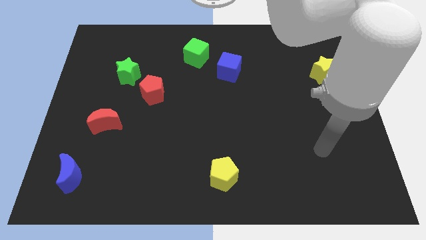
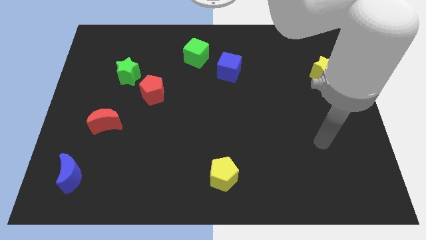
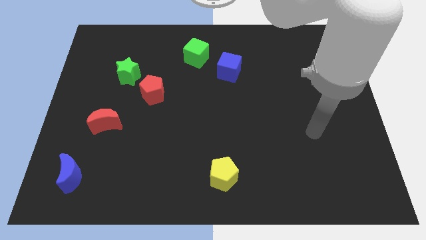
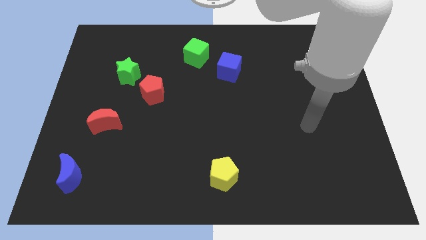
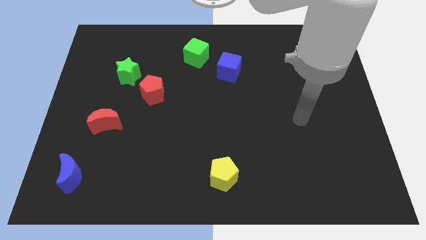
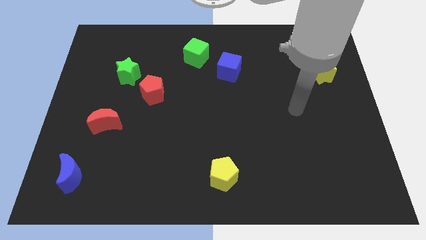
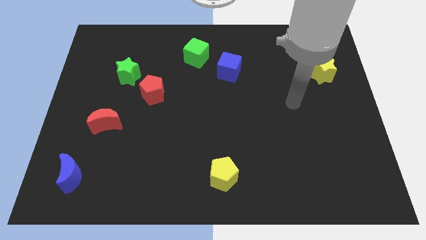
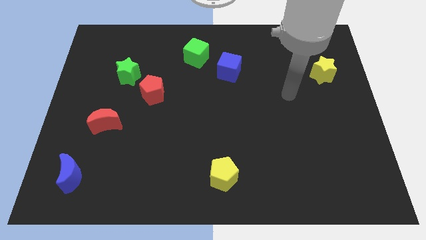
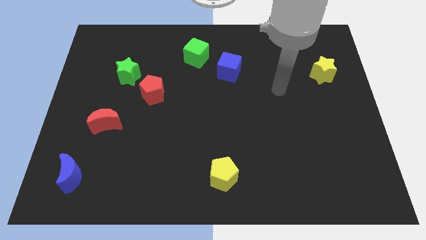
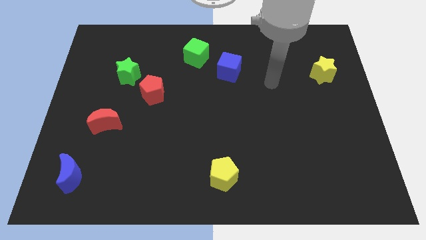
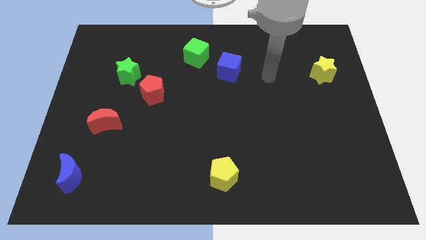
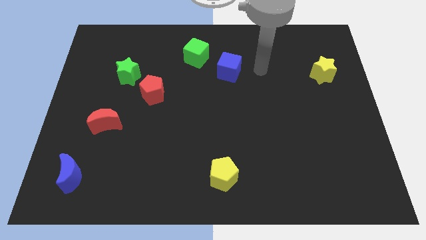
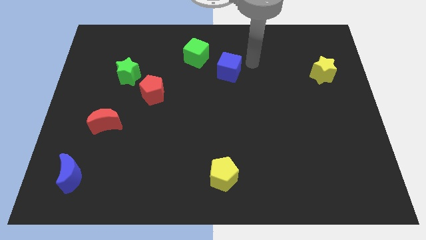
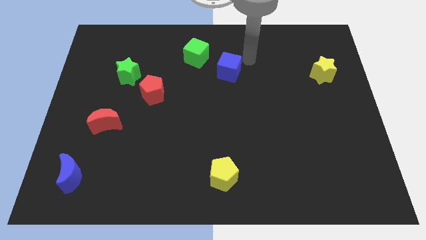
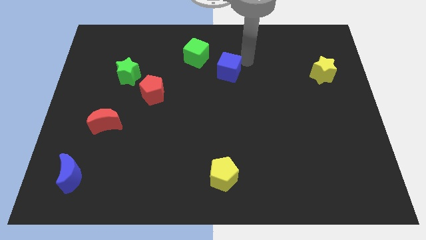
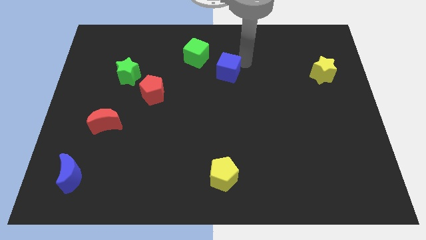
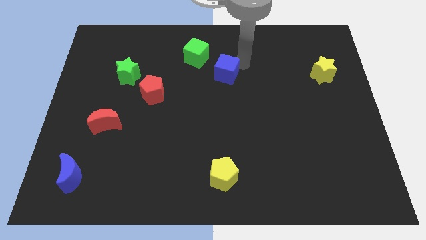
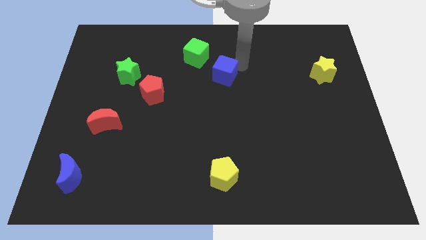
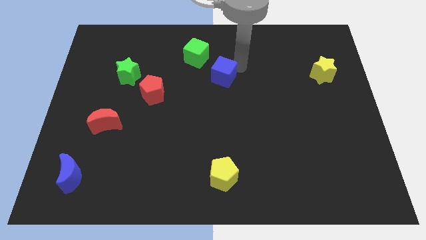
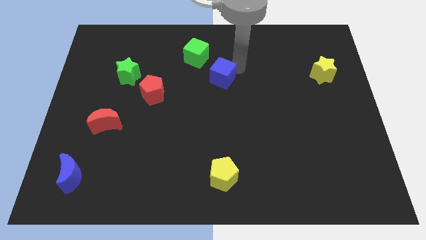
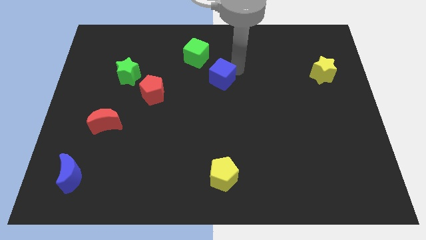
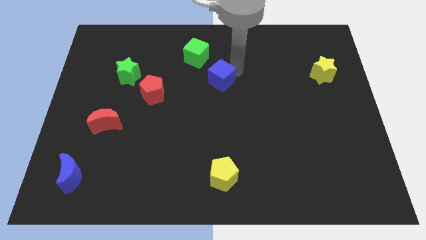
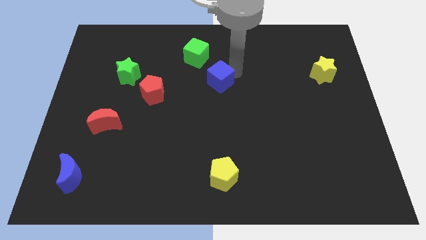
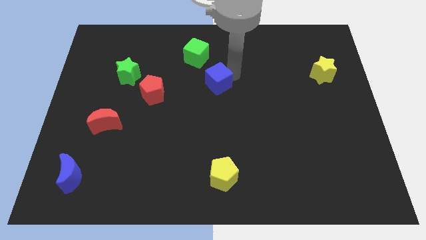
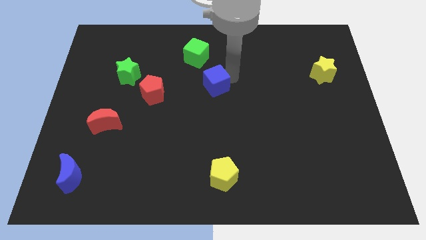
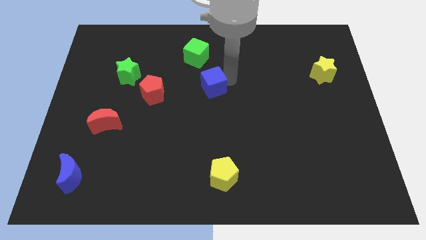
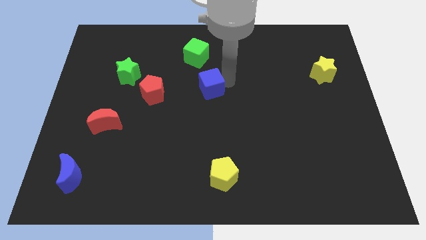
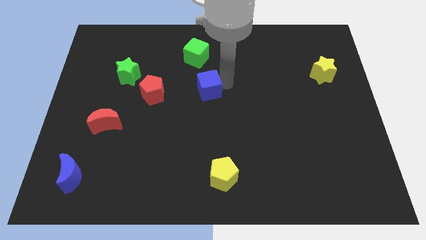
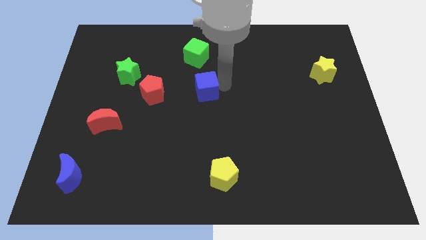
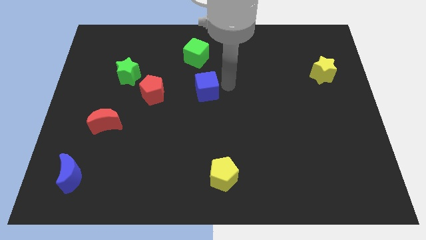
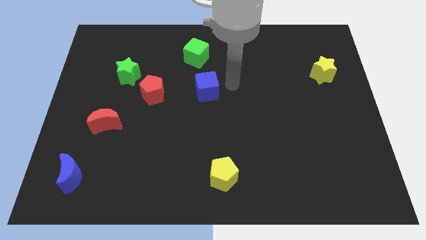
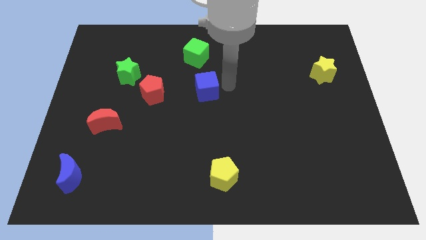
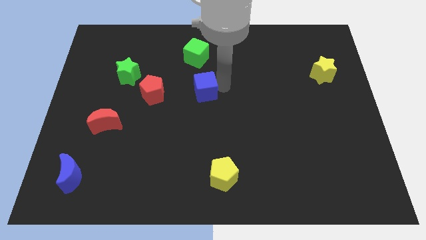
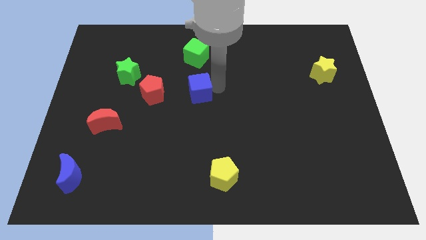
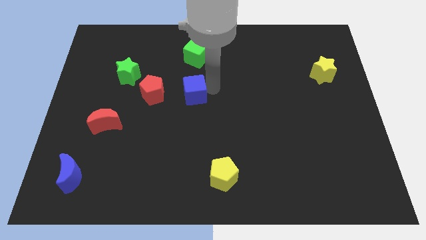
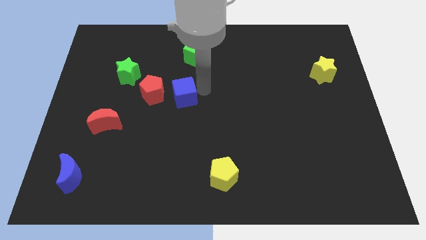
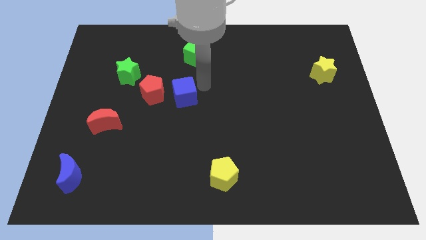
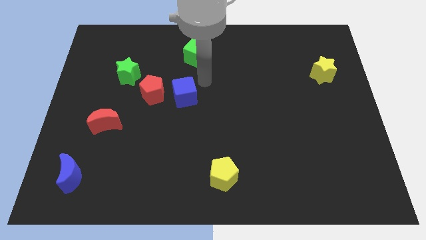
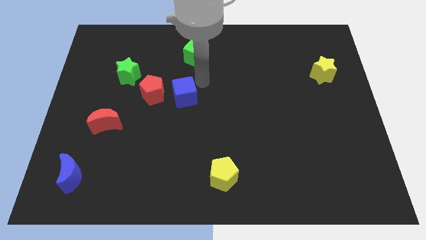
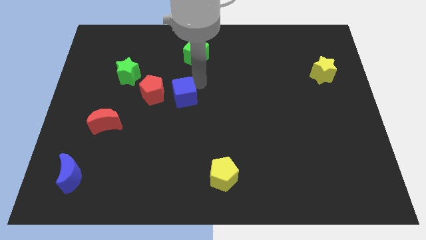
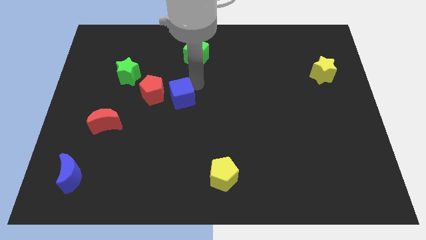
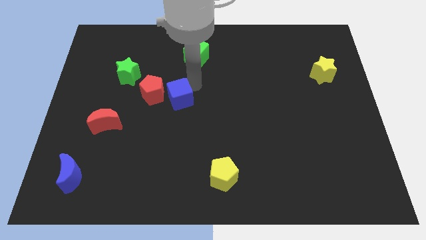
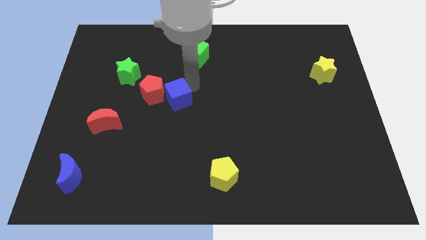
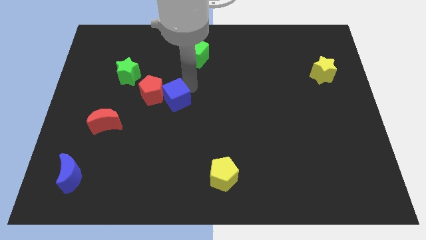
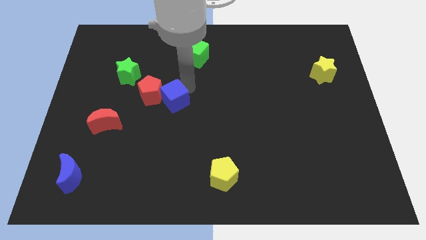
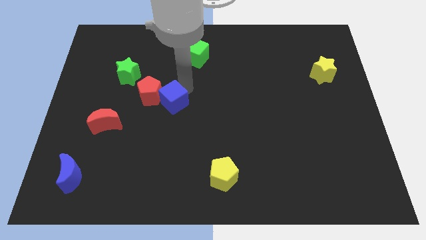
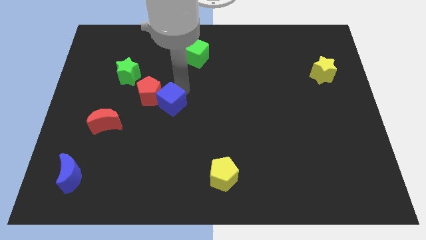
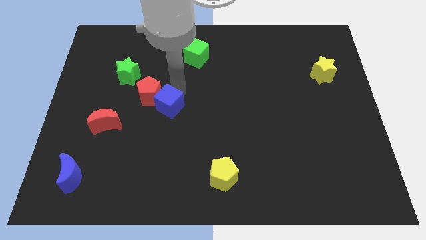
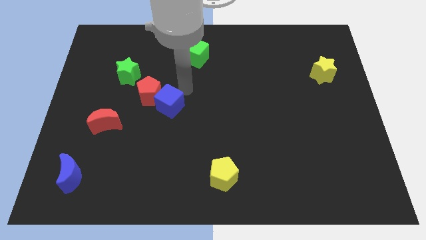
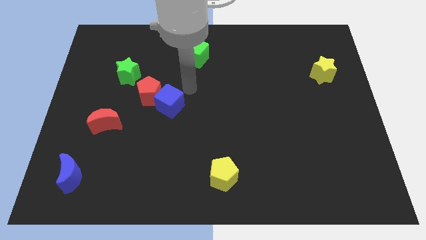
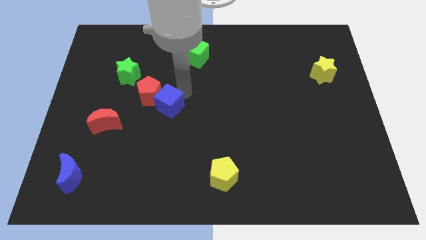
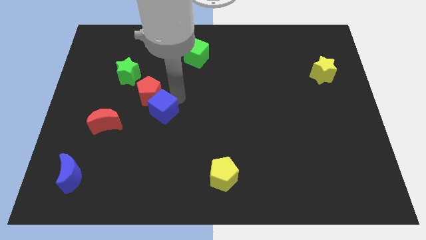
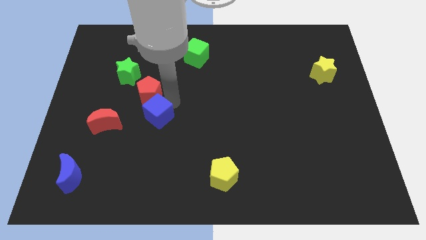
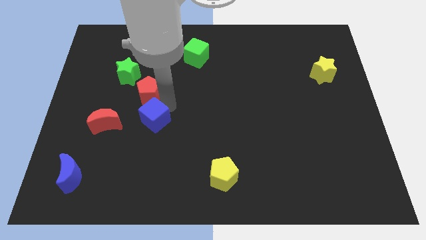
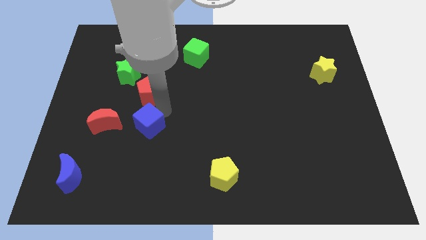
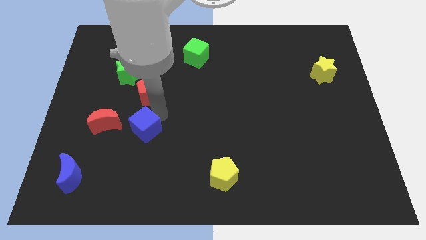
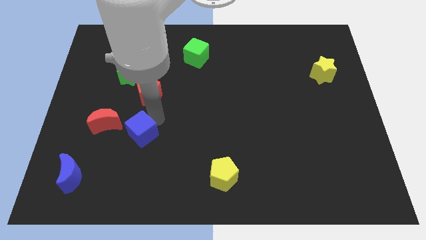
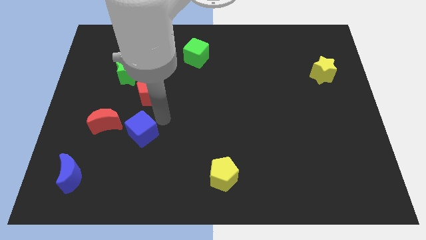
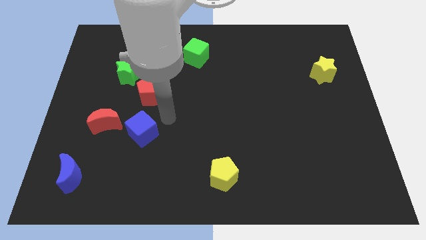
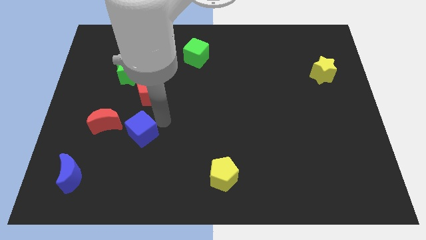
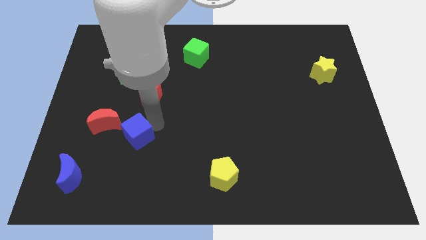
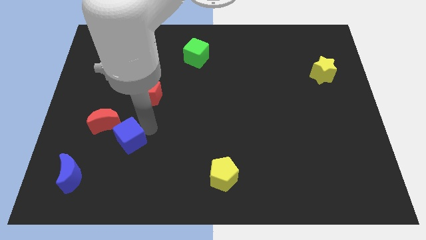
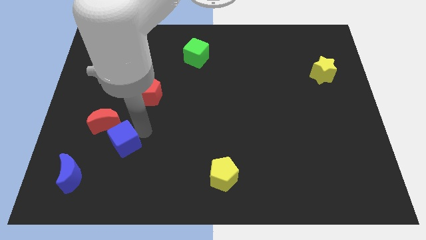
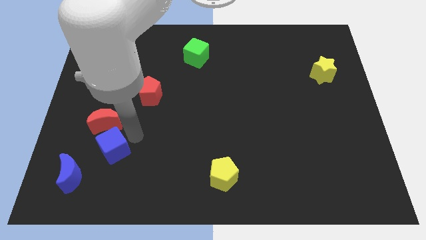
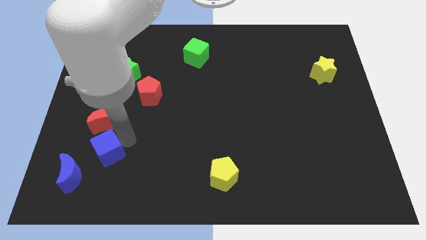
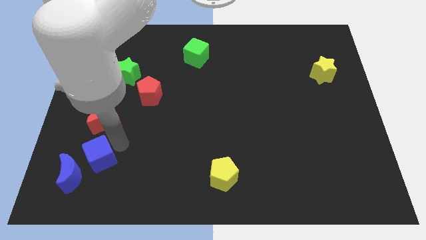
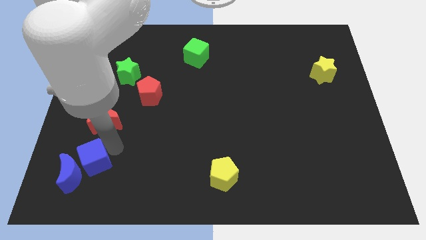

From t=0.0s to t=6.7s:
slide the blue cube towards the blue moon
